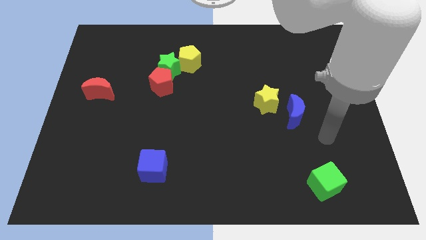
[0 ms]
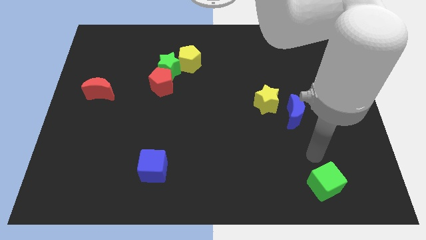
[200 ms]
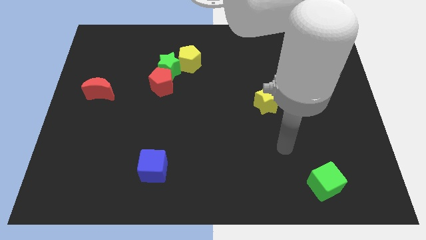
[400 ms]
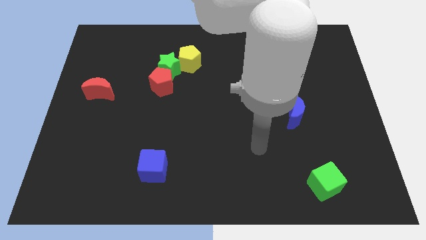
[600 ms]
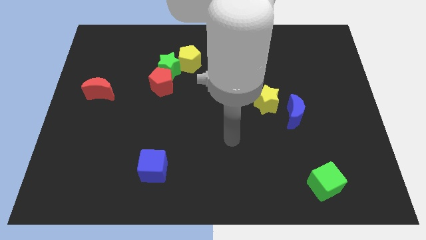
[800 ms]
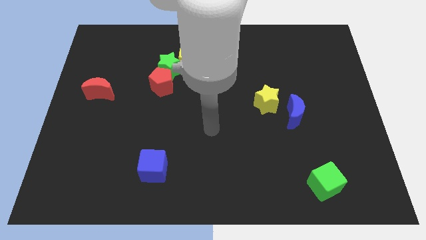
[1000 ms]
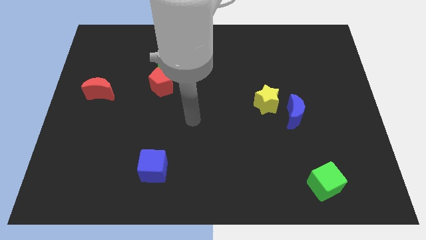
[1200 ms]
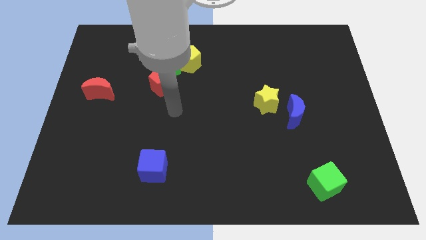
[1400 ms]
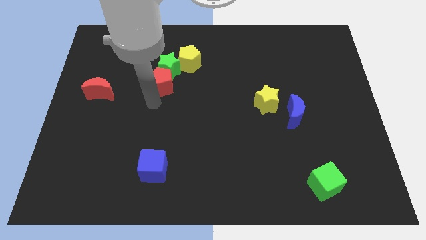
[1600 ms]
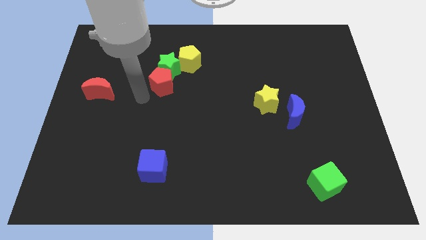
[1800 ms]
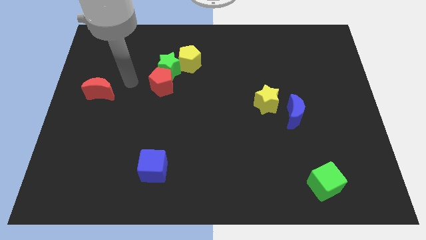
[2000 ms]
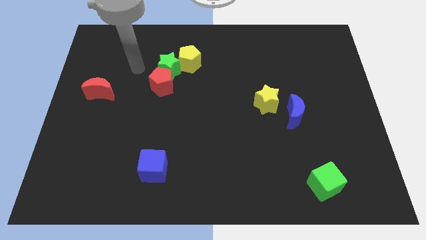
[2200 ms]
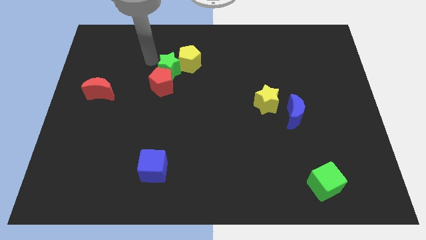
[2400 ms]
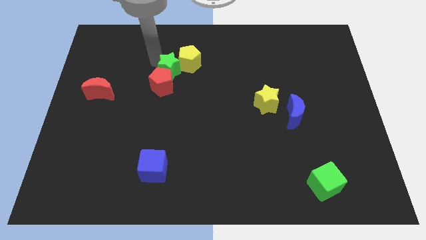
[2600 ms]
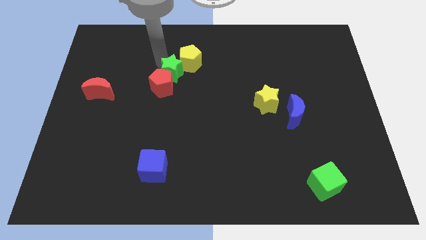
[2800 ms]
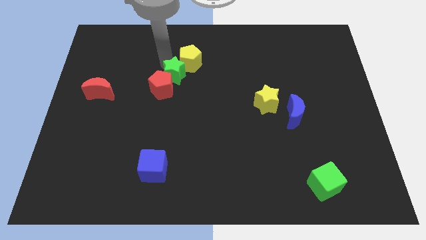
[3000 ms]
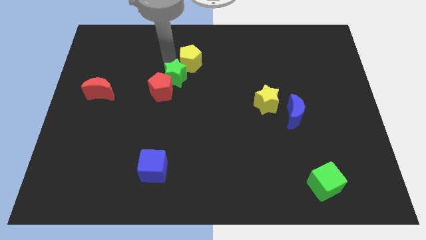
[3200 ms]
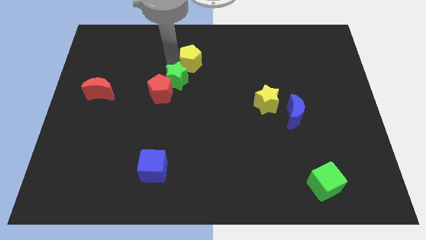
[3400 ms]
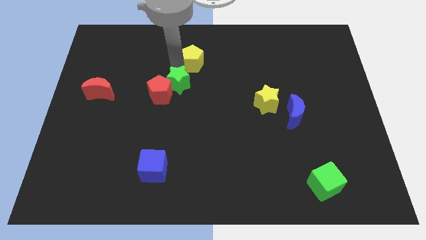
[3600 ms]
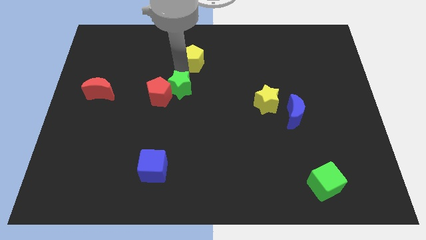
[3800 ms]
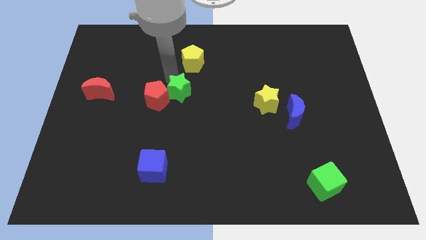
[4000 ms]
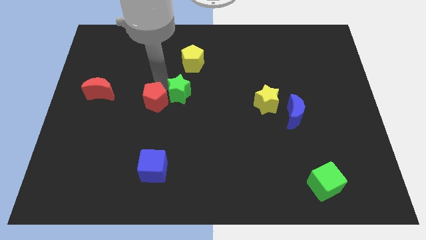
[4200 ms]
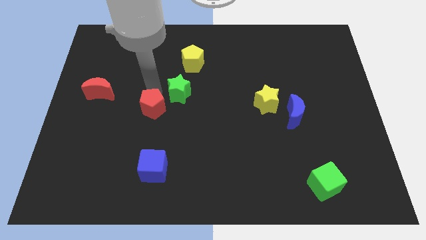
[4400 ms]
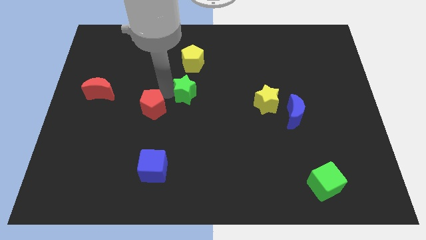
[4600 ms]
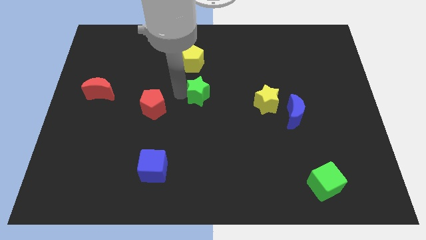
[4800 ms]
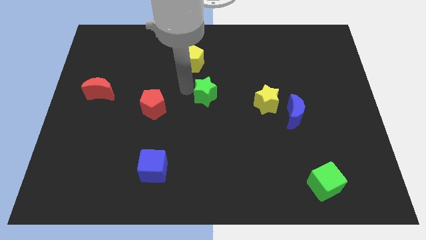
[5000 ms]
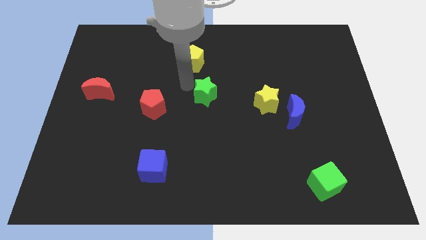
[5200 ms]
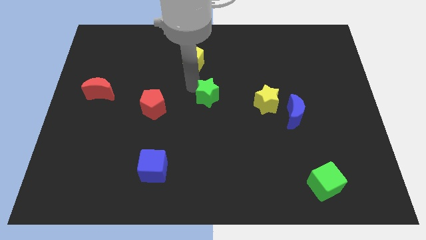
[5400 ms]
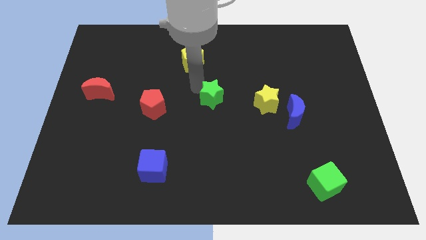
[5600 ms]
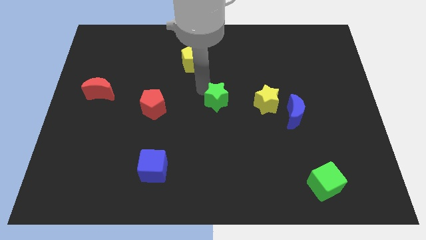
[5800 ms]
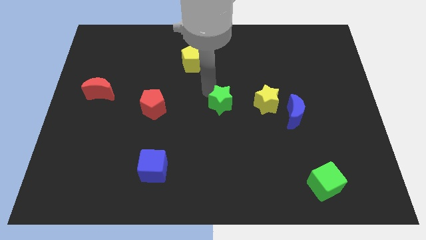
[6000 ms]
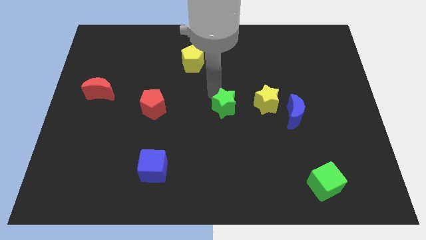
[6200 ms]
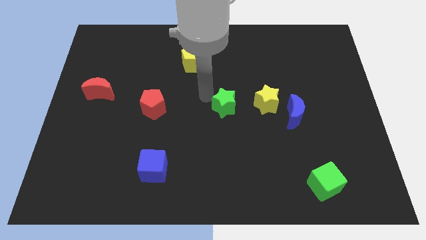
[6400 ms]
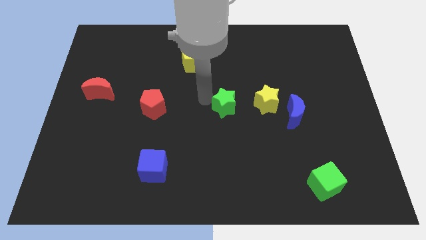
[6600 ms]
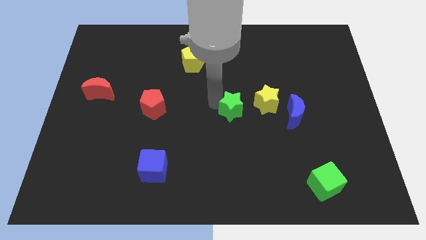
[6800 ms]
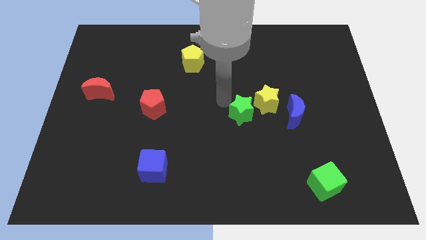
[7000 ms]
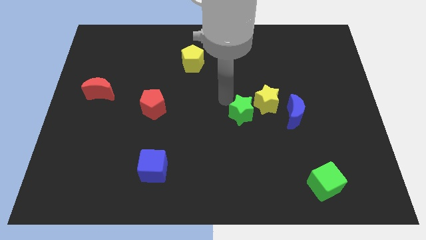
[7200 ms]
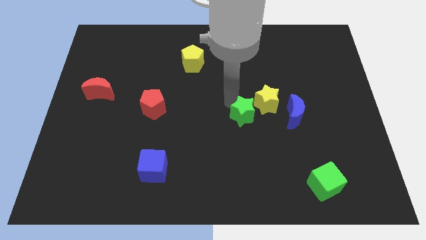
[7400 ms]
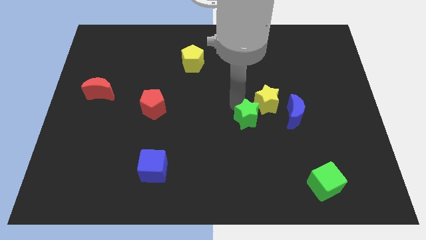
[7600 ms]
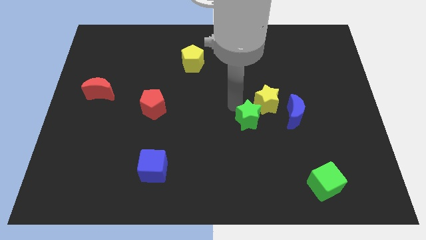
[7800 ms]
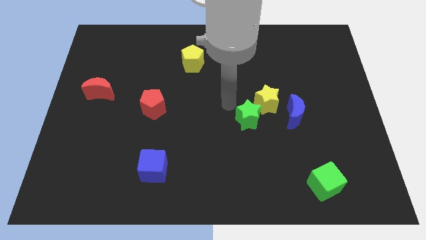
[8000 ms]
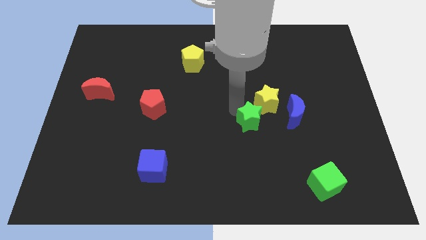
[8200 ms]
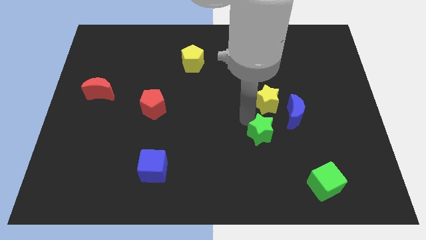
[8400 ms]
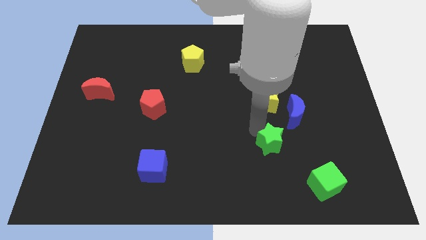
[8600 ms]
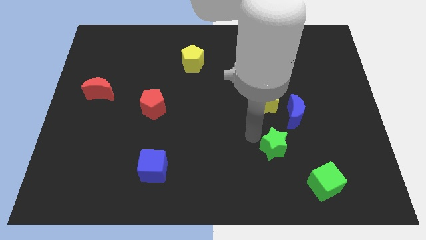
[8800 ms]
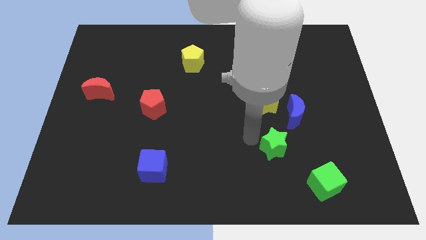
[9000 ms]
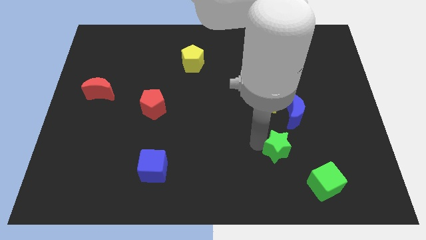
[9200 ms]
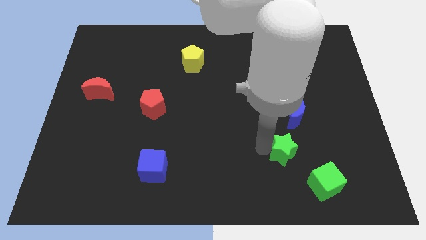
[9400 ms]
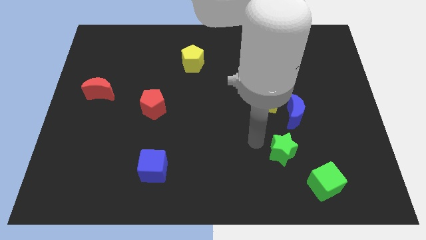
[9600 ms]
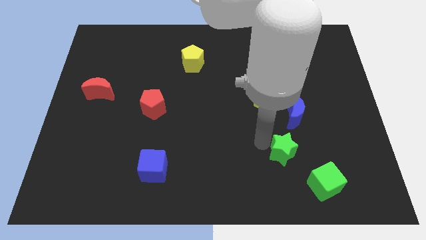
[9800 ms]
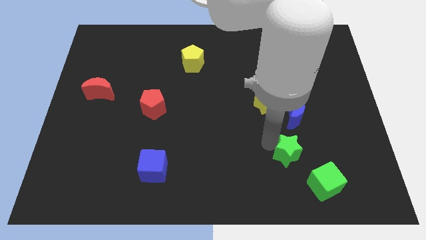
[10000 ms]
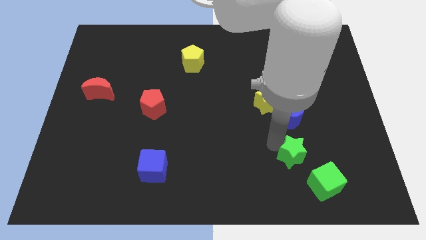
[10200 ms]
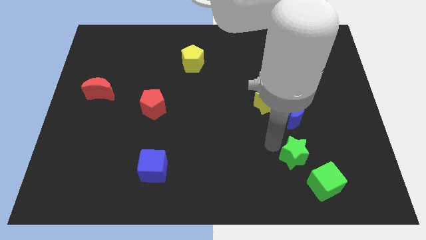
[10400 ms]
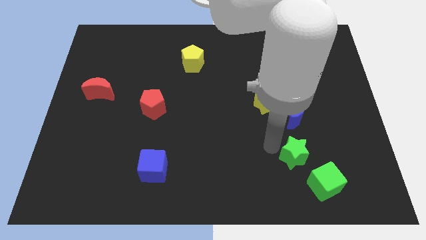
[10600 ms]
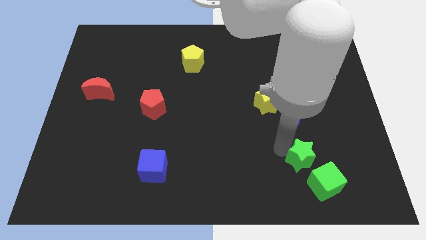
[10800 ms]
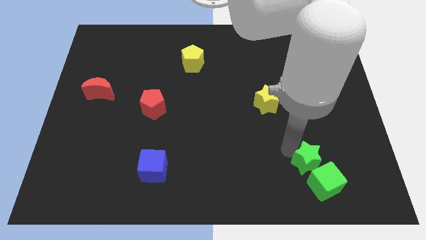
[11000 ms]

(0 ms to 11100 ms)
move the green star close to the green cube

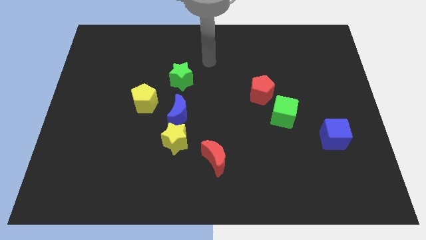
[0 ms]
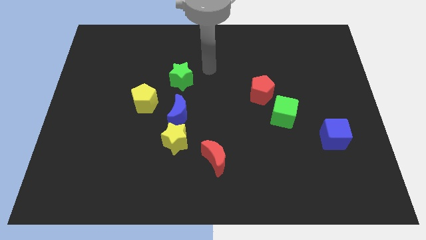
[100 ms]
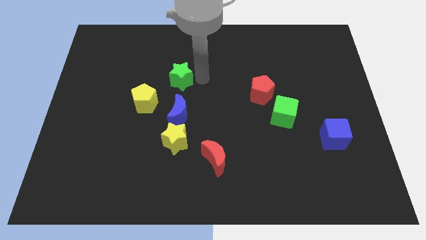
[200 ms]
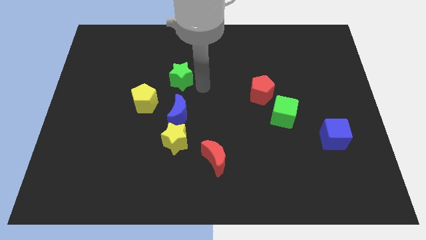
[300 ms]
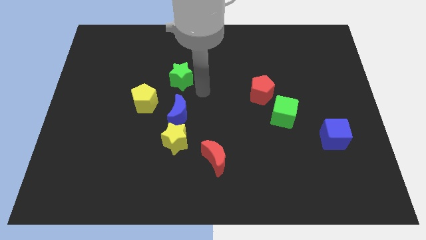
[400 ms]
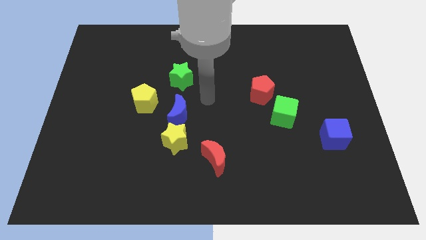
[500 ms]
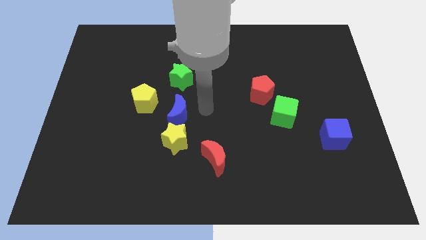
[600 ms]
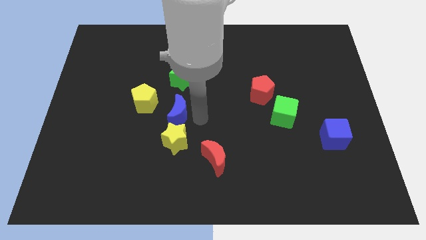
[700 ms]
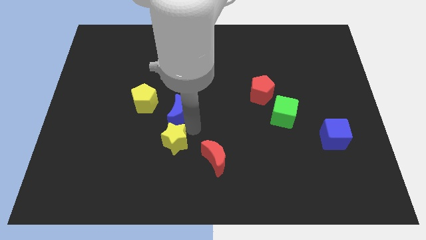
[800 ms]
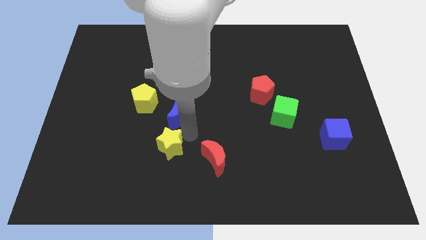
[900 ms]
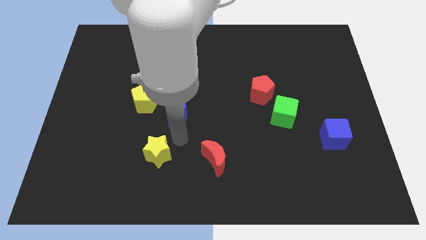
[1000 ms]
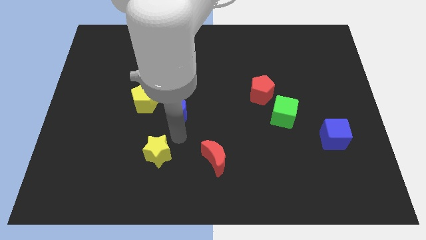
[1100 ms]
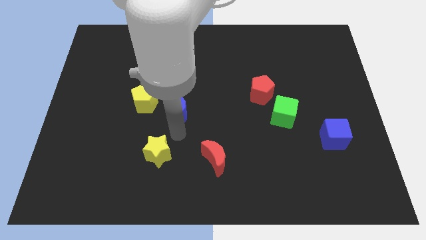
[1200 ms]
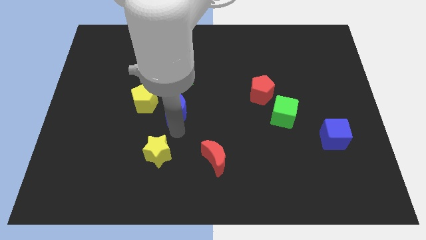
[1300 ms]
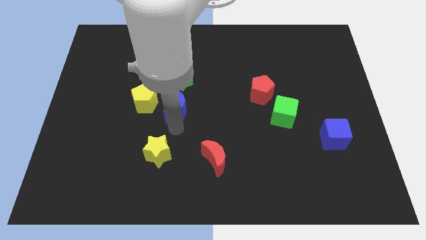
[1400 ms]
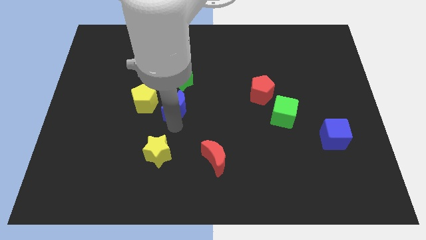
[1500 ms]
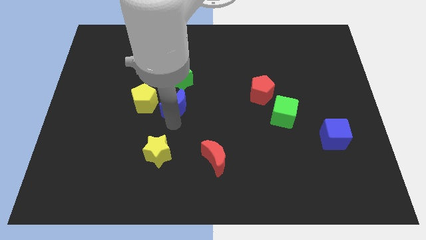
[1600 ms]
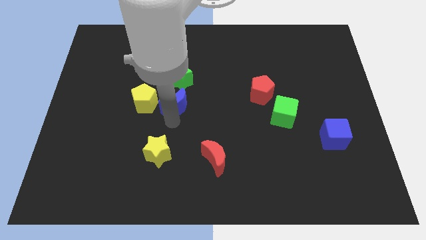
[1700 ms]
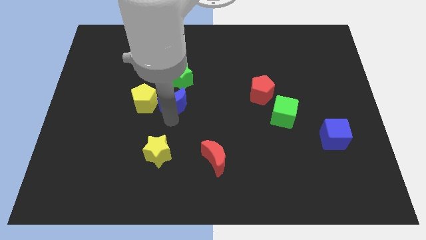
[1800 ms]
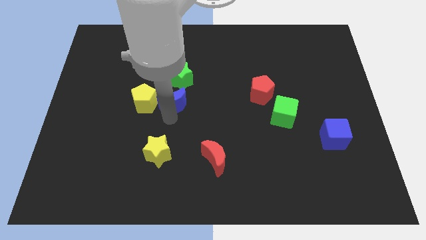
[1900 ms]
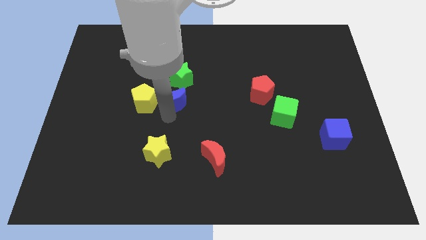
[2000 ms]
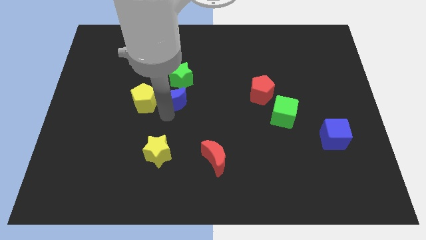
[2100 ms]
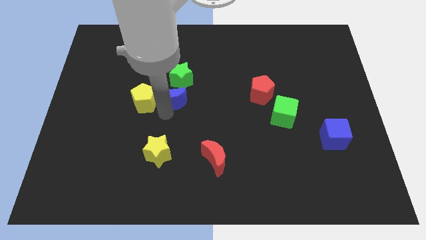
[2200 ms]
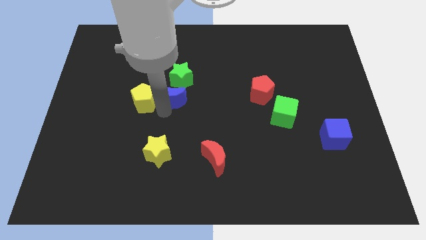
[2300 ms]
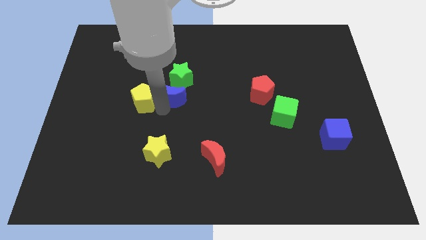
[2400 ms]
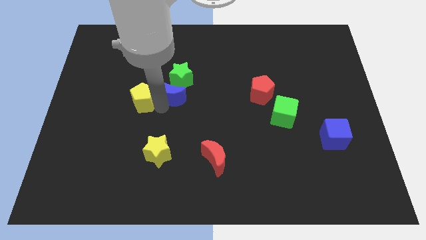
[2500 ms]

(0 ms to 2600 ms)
put the blue moon towards the green star
